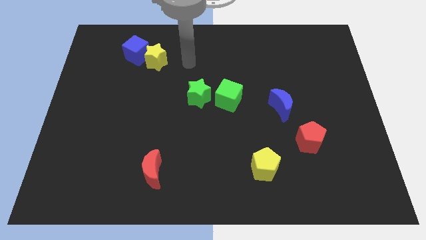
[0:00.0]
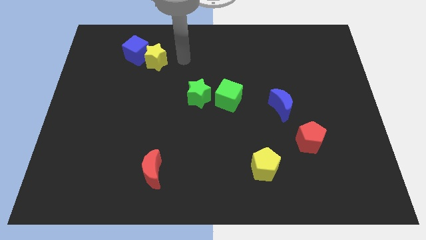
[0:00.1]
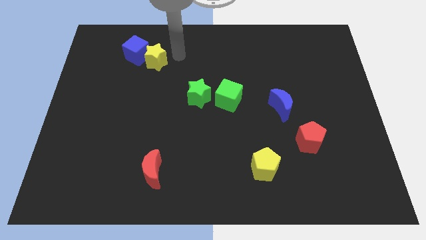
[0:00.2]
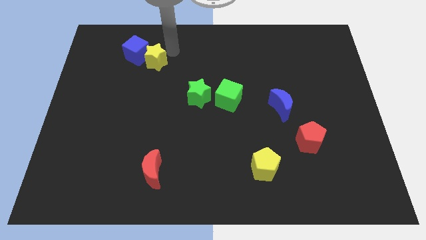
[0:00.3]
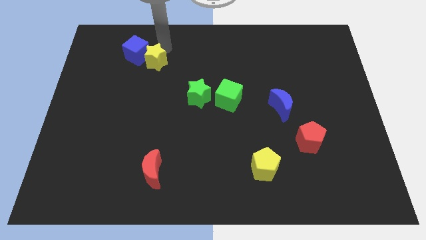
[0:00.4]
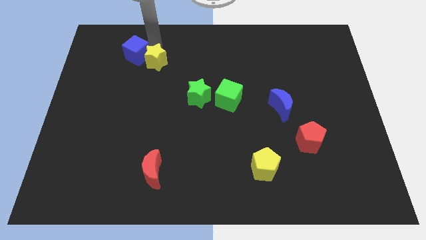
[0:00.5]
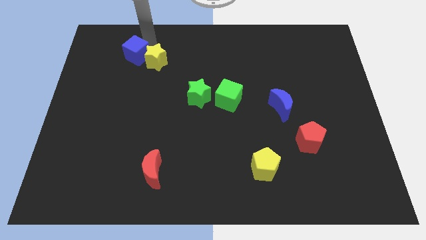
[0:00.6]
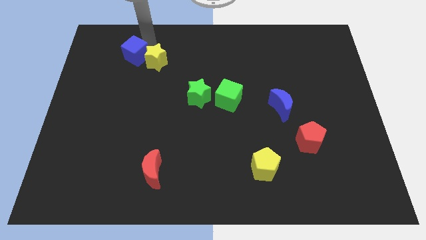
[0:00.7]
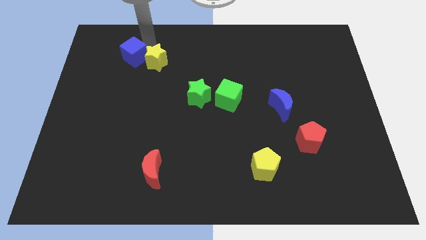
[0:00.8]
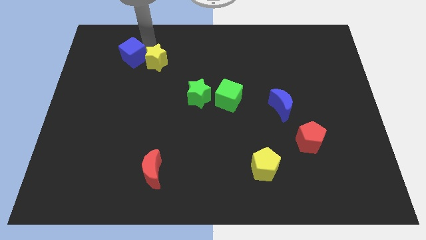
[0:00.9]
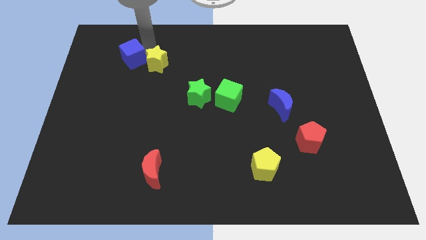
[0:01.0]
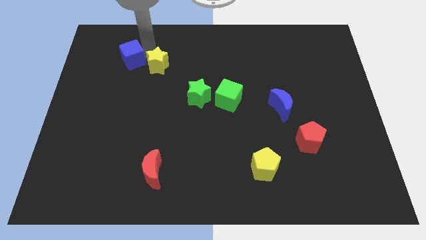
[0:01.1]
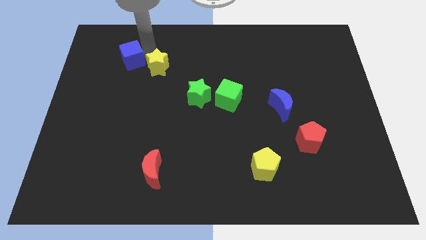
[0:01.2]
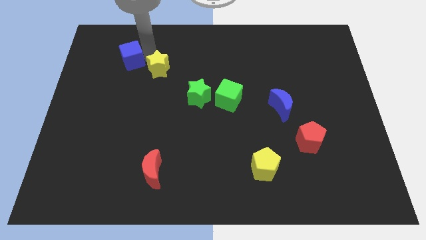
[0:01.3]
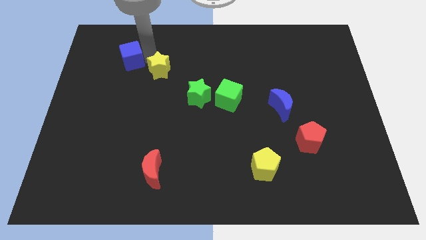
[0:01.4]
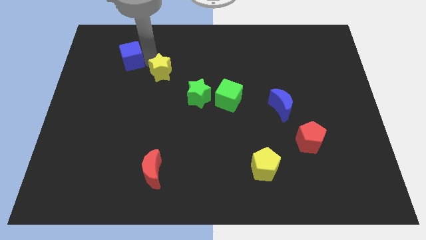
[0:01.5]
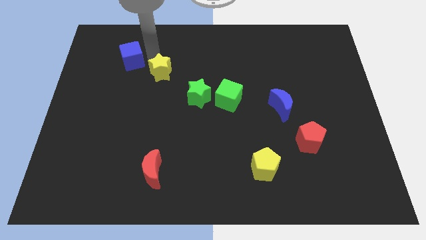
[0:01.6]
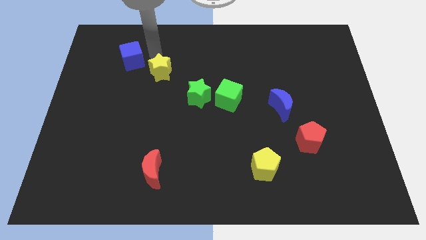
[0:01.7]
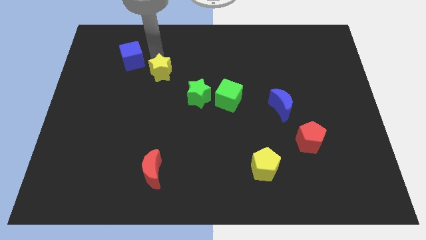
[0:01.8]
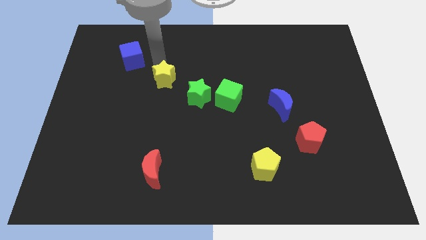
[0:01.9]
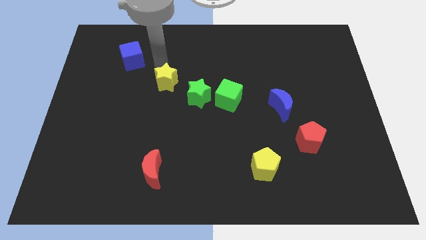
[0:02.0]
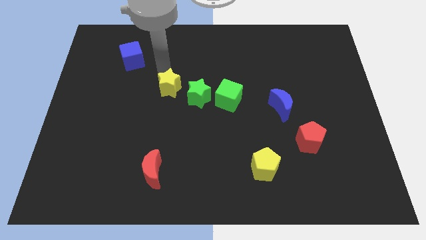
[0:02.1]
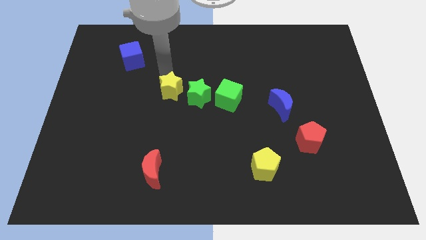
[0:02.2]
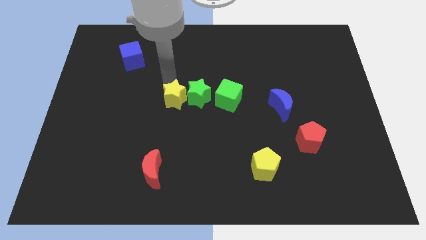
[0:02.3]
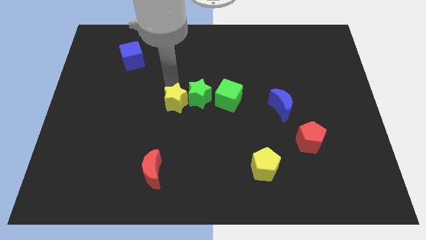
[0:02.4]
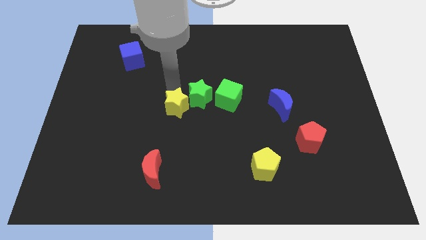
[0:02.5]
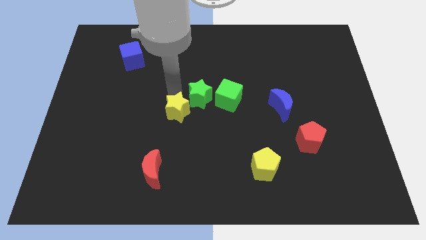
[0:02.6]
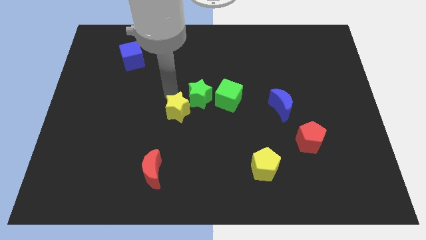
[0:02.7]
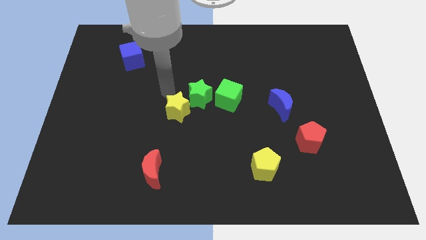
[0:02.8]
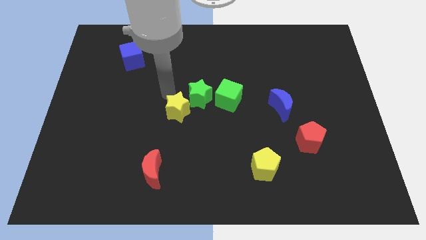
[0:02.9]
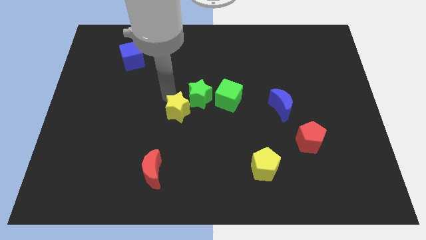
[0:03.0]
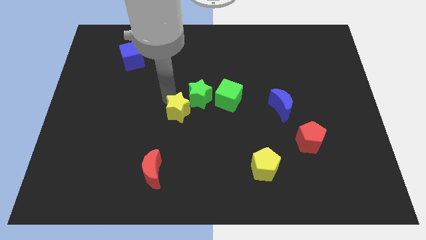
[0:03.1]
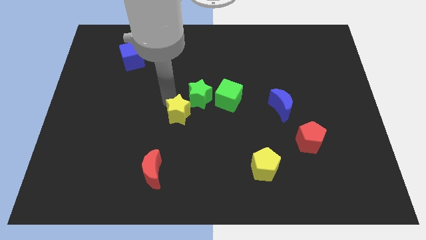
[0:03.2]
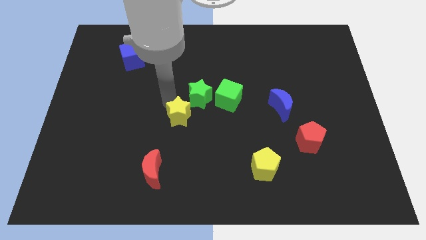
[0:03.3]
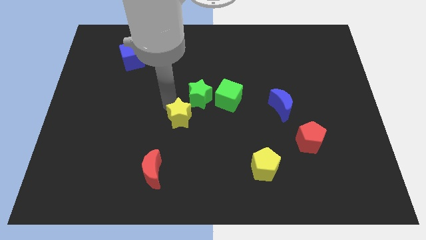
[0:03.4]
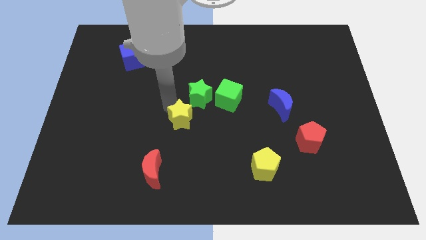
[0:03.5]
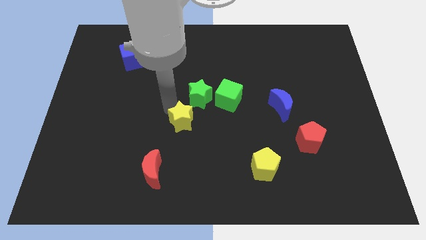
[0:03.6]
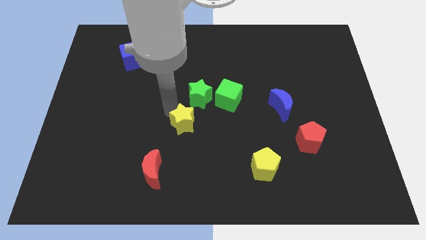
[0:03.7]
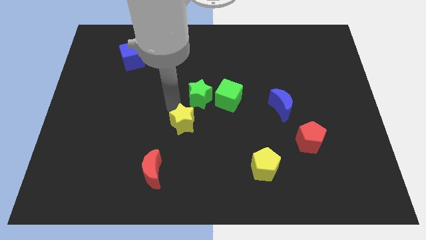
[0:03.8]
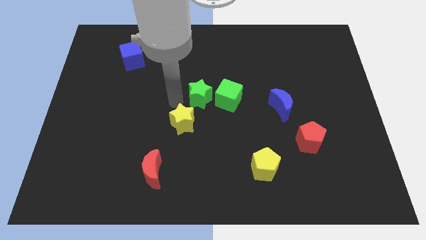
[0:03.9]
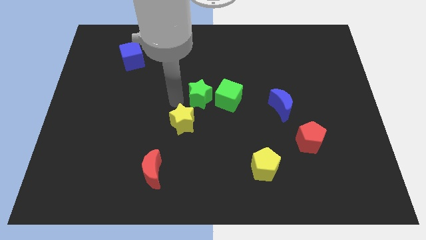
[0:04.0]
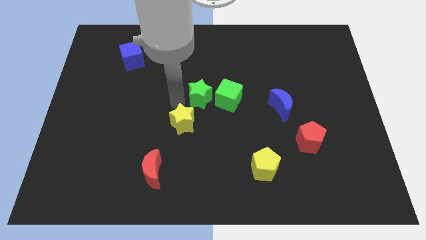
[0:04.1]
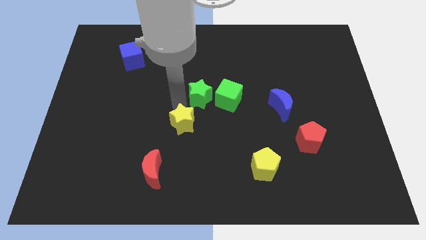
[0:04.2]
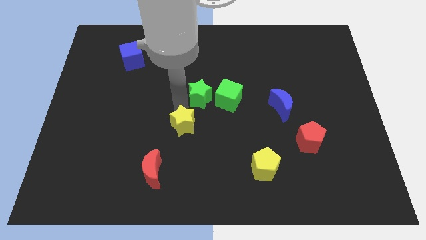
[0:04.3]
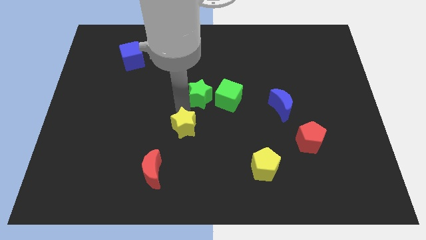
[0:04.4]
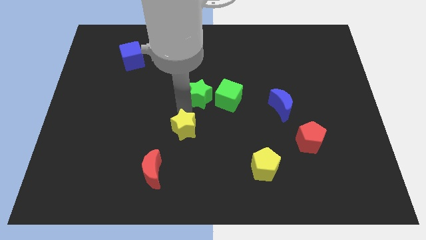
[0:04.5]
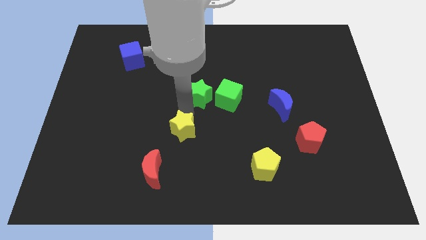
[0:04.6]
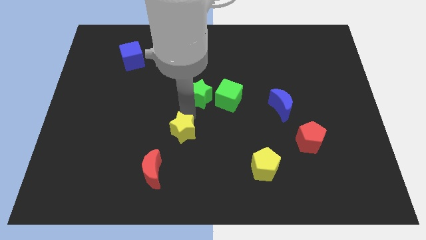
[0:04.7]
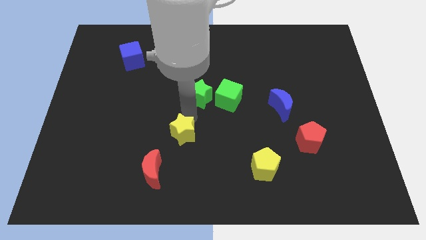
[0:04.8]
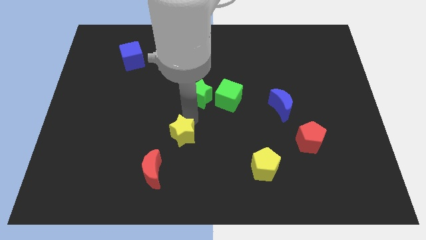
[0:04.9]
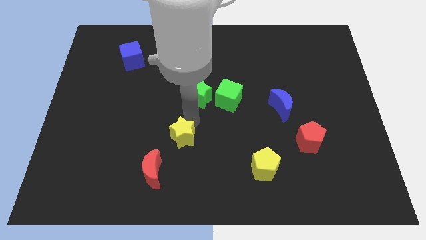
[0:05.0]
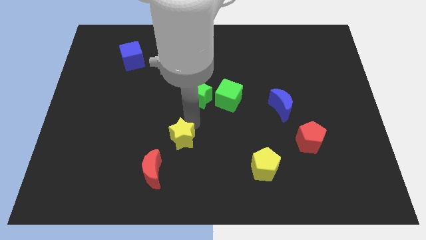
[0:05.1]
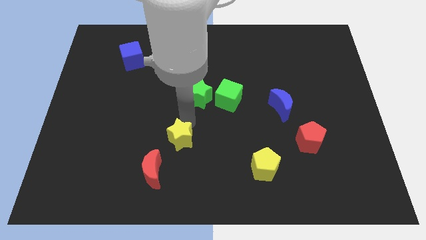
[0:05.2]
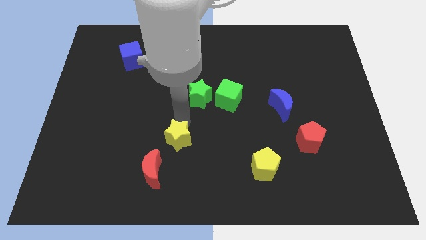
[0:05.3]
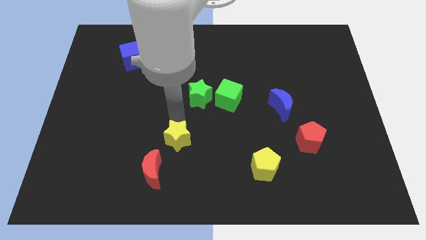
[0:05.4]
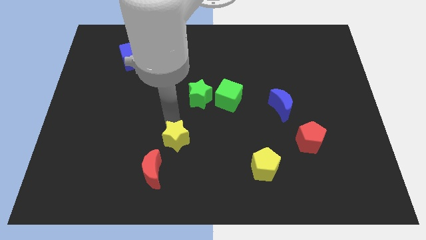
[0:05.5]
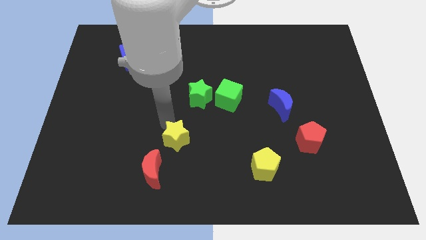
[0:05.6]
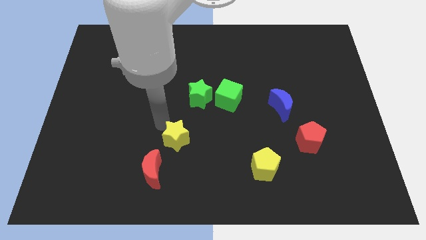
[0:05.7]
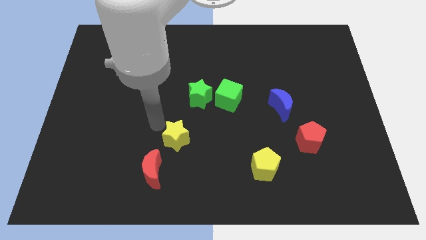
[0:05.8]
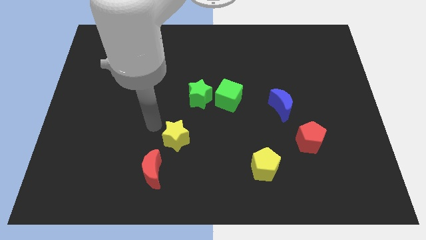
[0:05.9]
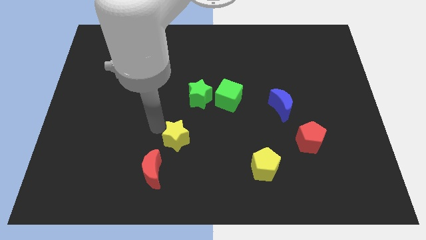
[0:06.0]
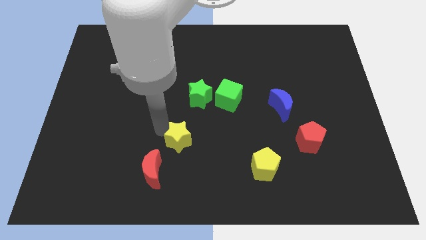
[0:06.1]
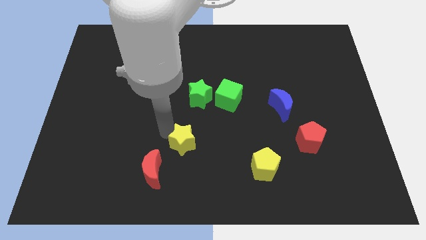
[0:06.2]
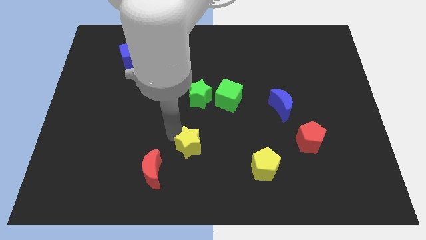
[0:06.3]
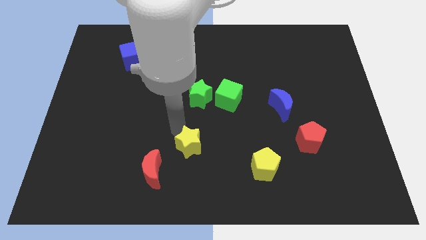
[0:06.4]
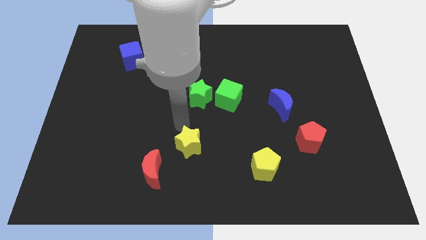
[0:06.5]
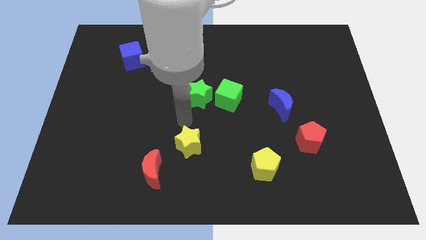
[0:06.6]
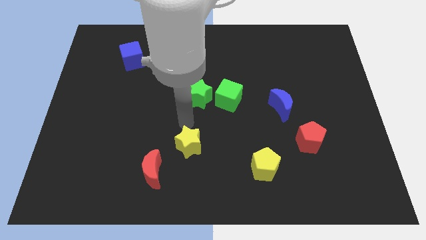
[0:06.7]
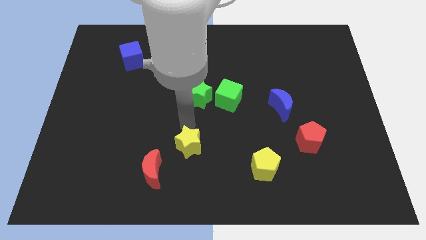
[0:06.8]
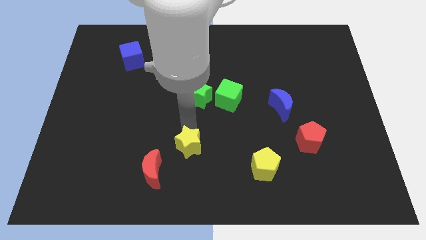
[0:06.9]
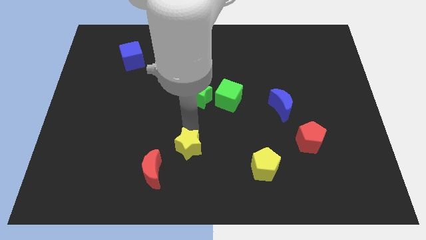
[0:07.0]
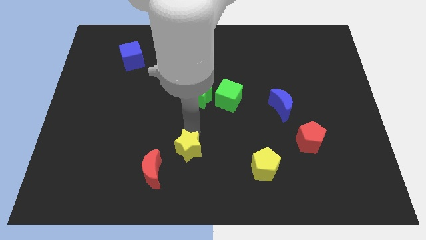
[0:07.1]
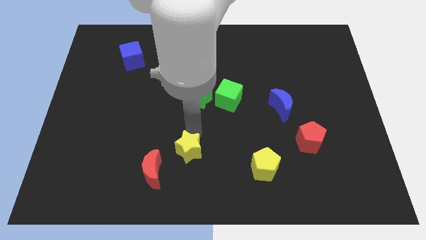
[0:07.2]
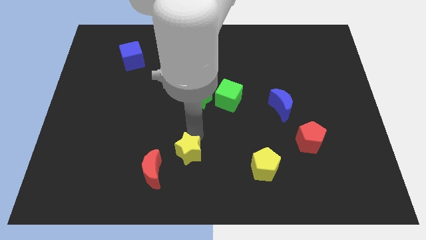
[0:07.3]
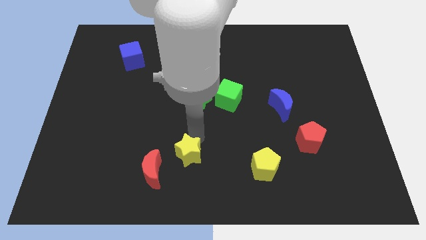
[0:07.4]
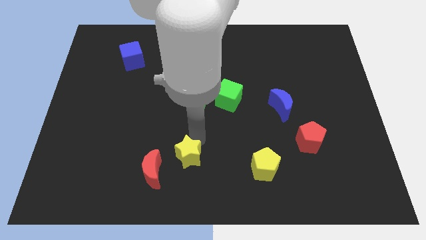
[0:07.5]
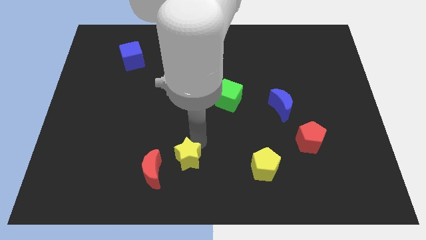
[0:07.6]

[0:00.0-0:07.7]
move the yellow star to the bottom
